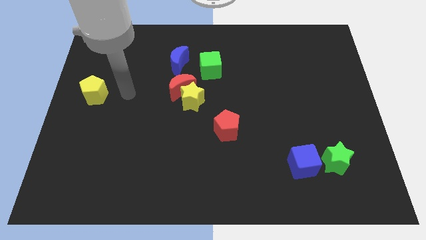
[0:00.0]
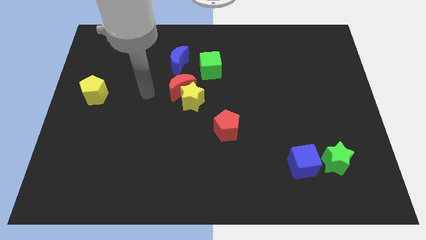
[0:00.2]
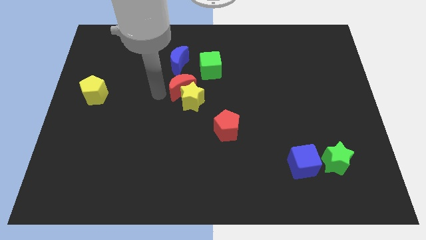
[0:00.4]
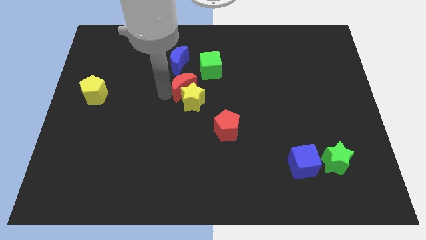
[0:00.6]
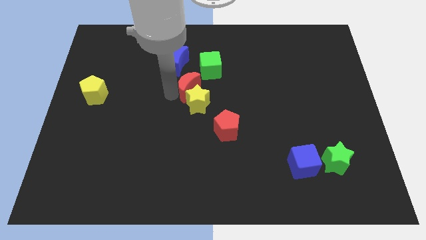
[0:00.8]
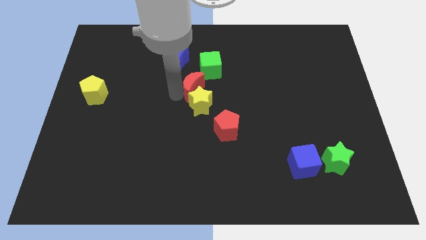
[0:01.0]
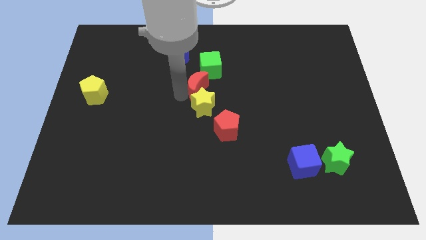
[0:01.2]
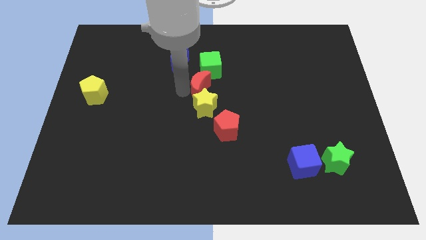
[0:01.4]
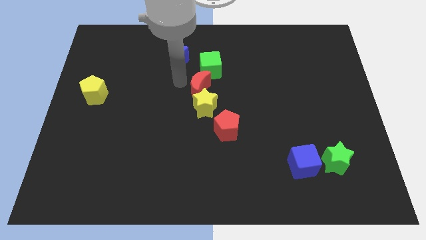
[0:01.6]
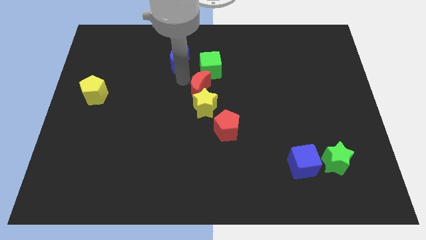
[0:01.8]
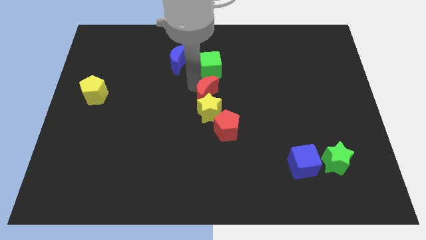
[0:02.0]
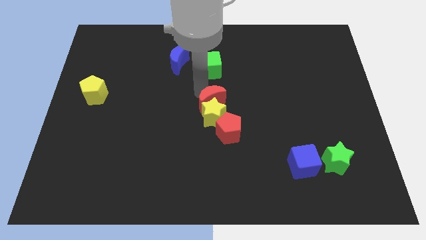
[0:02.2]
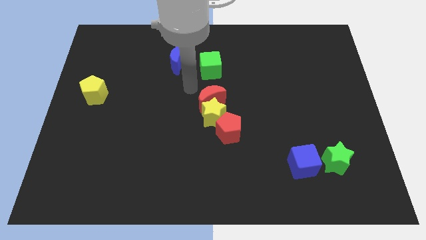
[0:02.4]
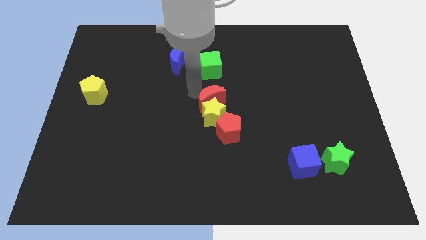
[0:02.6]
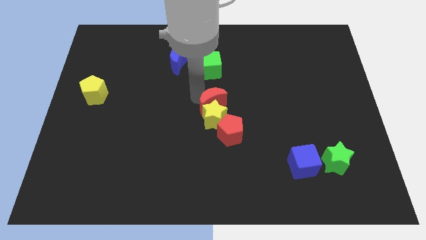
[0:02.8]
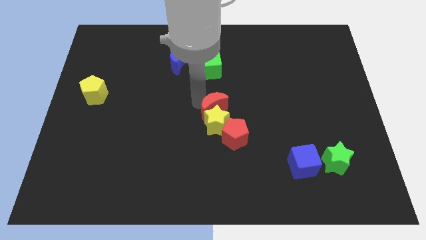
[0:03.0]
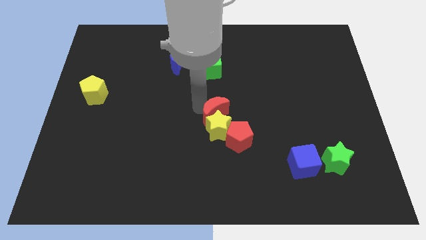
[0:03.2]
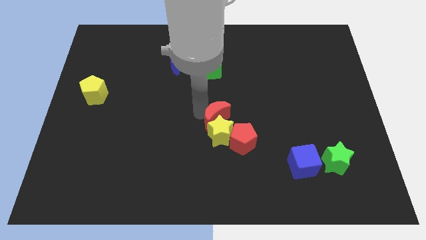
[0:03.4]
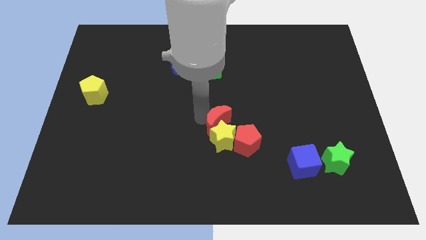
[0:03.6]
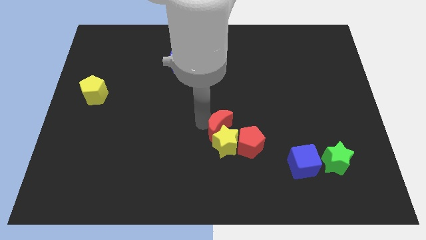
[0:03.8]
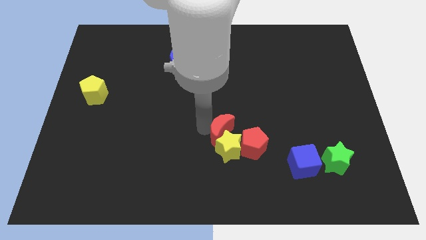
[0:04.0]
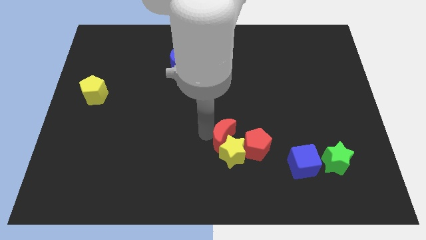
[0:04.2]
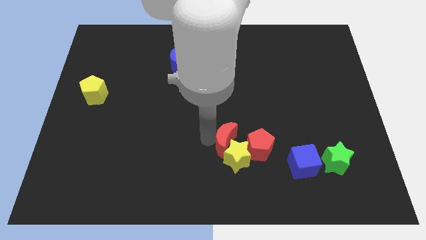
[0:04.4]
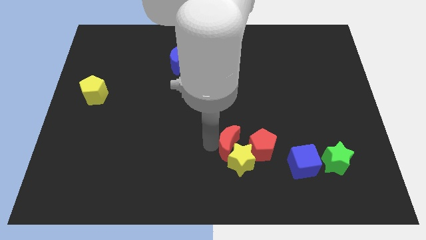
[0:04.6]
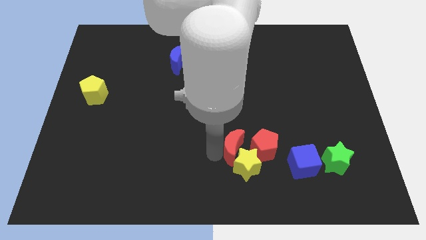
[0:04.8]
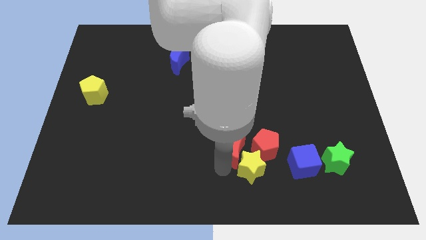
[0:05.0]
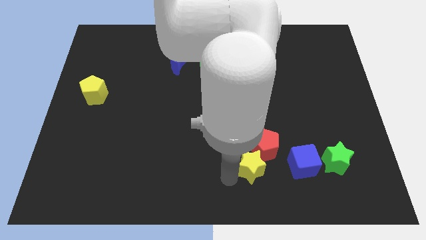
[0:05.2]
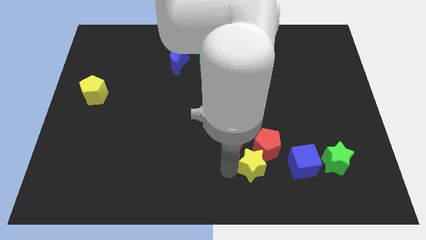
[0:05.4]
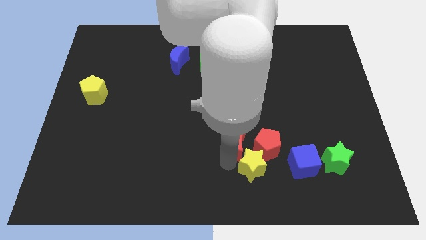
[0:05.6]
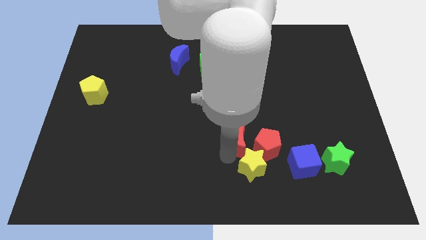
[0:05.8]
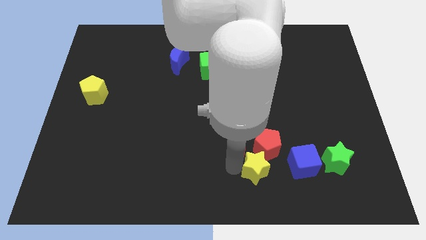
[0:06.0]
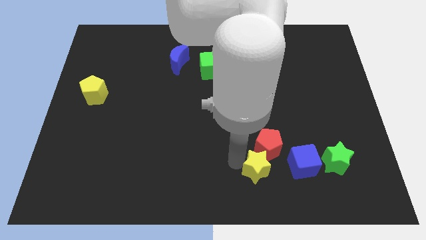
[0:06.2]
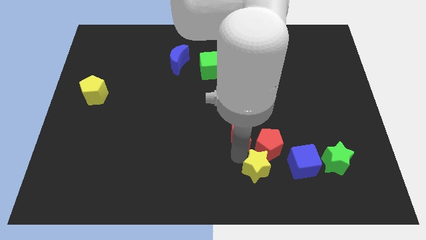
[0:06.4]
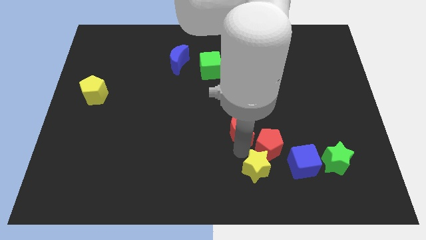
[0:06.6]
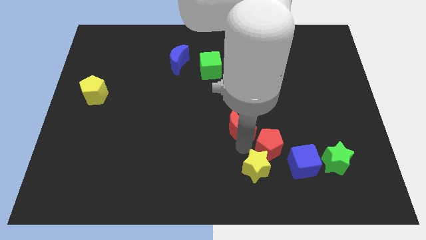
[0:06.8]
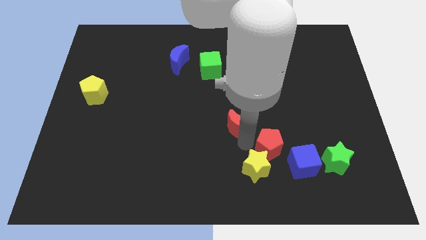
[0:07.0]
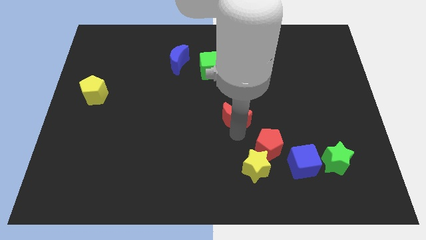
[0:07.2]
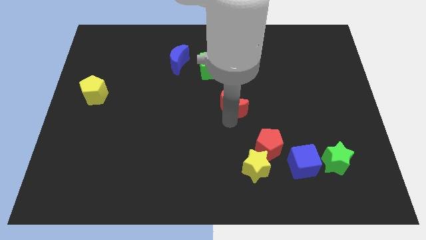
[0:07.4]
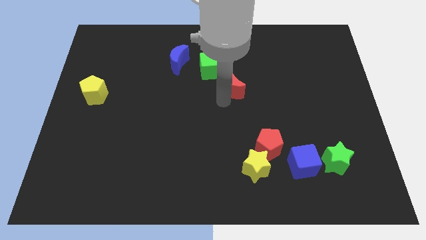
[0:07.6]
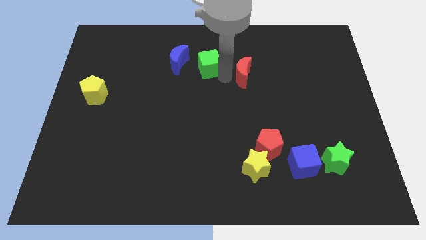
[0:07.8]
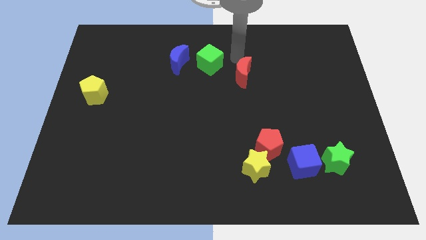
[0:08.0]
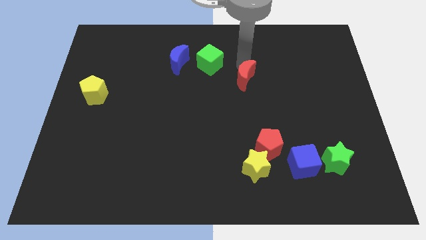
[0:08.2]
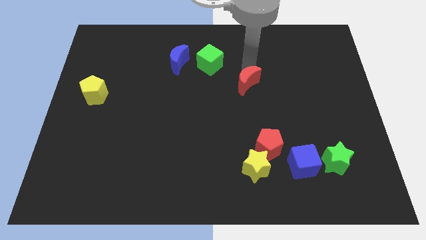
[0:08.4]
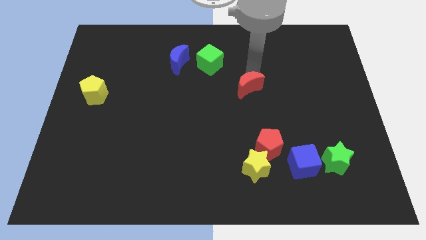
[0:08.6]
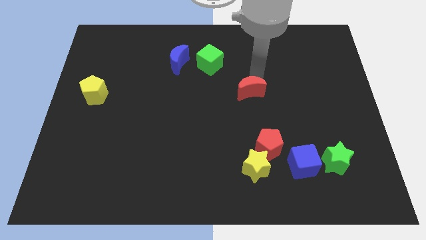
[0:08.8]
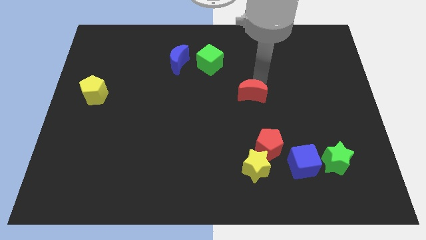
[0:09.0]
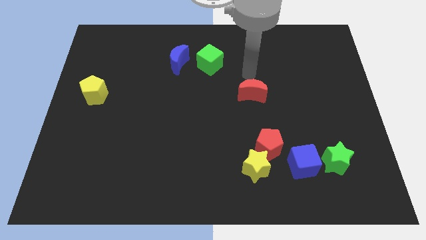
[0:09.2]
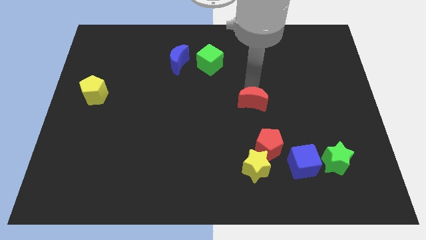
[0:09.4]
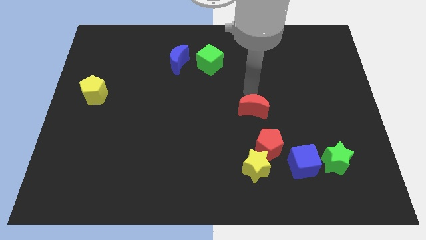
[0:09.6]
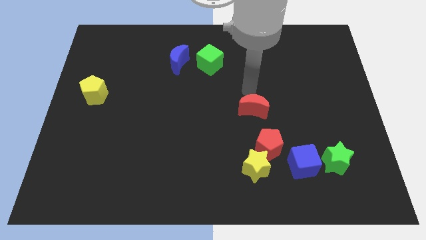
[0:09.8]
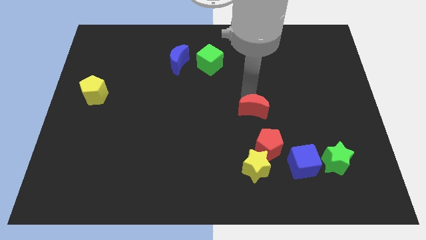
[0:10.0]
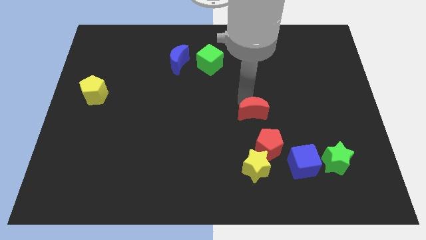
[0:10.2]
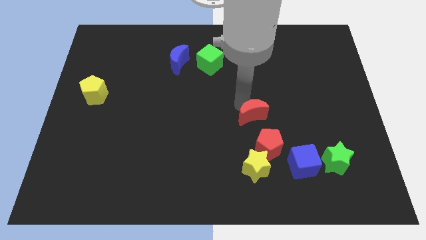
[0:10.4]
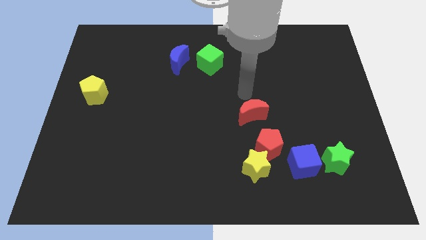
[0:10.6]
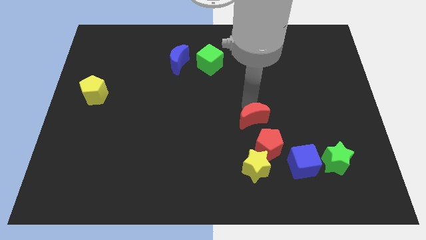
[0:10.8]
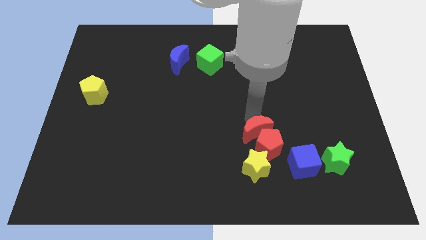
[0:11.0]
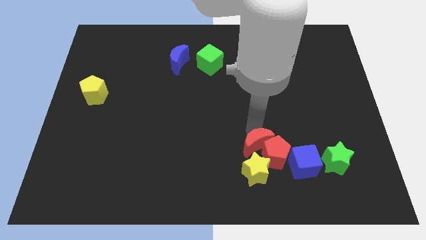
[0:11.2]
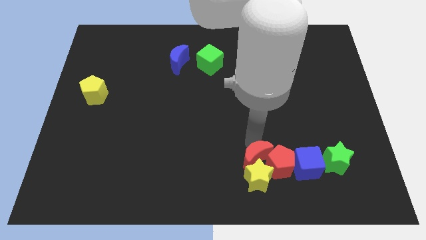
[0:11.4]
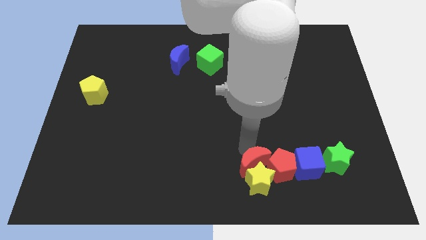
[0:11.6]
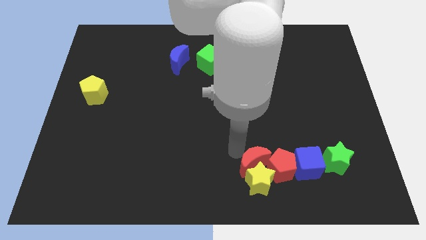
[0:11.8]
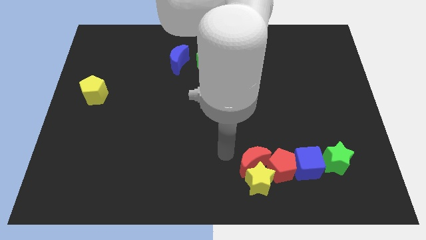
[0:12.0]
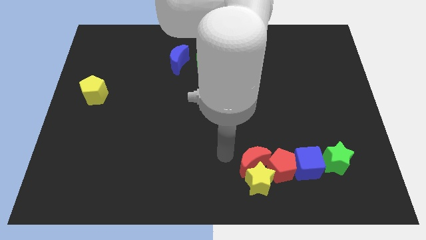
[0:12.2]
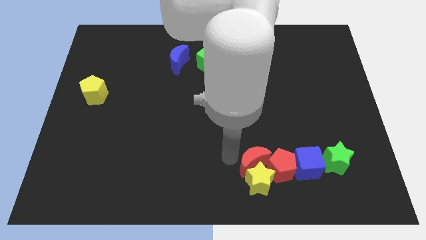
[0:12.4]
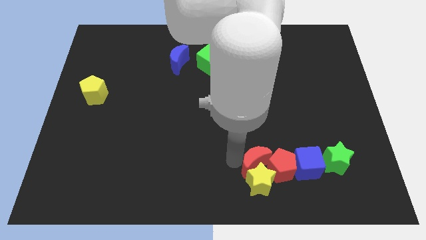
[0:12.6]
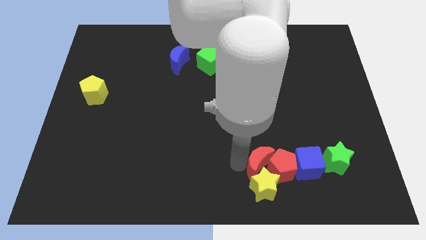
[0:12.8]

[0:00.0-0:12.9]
slide the red moon to the left side of the green star

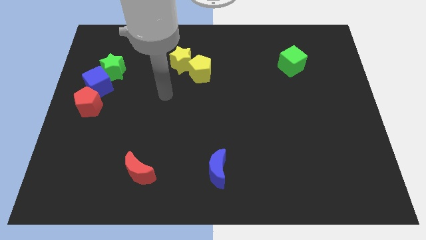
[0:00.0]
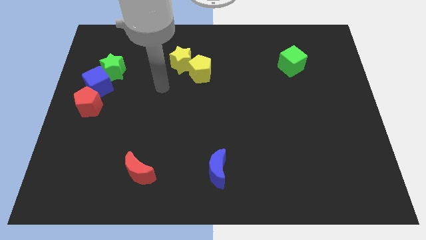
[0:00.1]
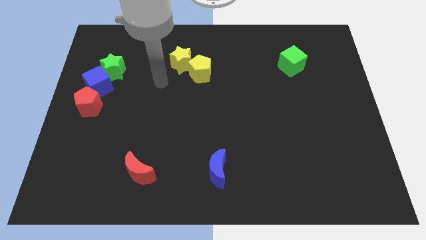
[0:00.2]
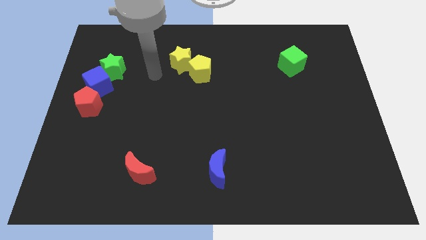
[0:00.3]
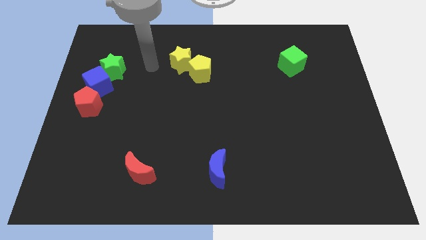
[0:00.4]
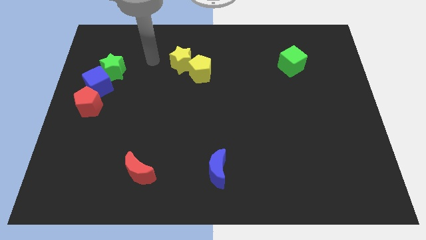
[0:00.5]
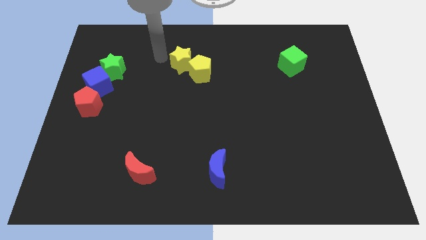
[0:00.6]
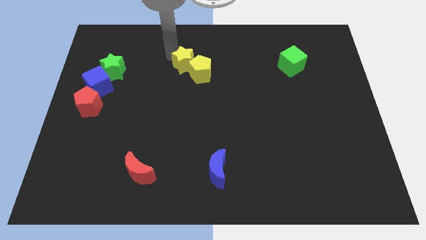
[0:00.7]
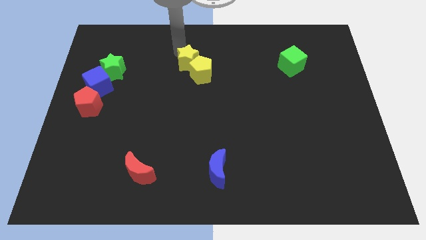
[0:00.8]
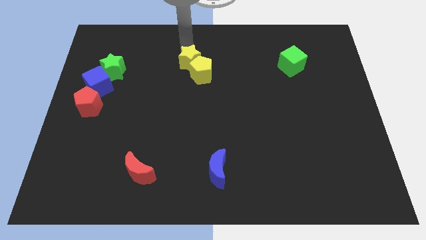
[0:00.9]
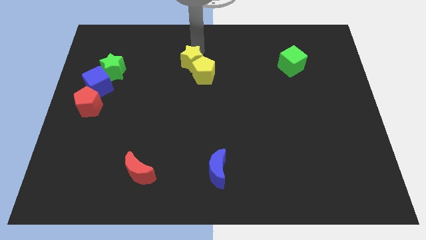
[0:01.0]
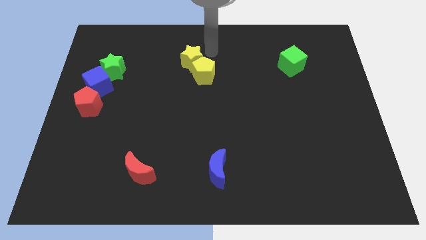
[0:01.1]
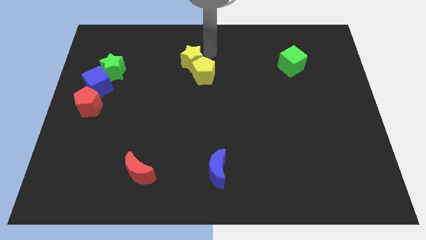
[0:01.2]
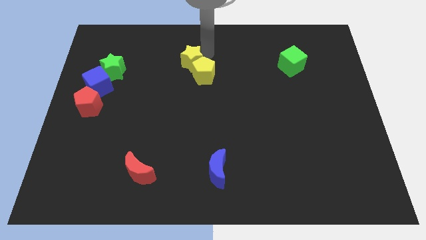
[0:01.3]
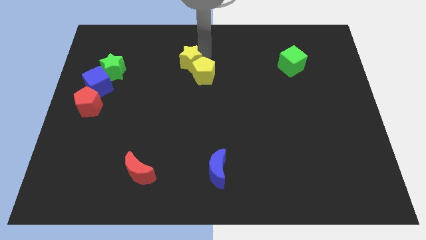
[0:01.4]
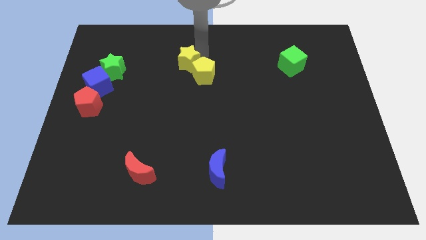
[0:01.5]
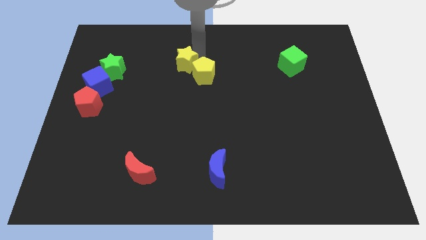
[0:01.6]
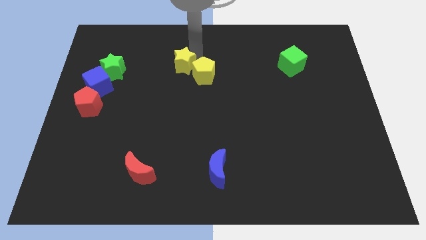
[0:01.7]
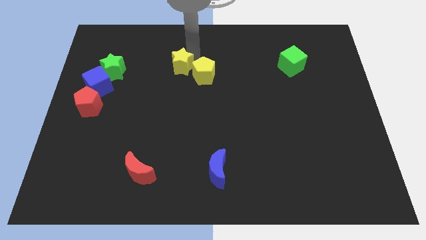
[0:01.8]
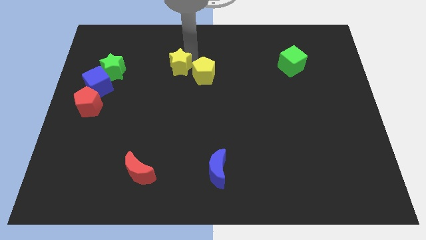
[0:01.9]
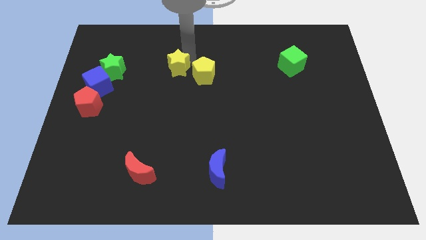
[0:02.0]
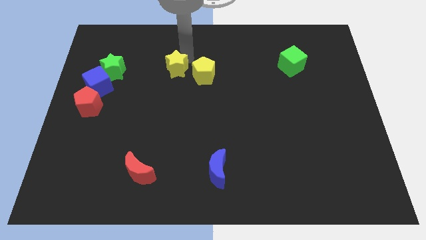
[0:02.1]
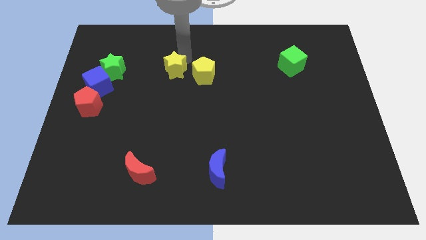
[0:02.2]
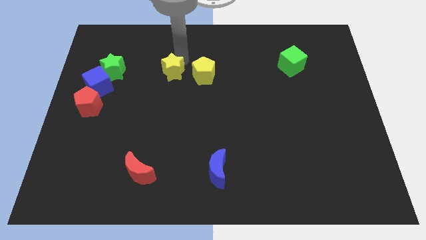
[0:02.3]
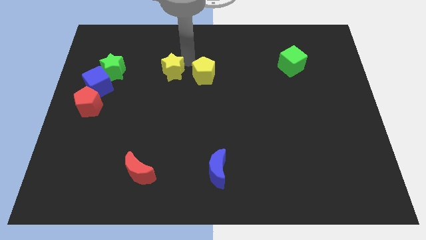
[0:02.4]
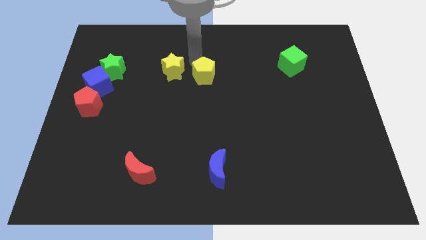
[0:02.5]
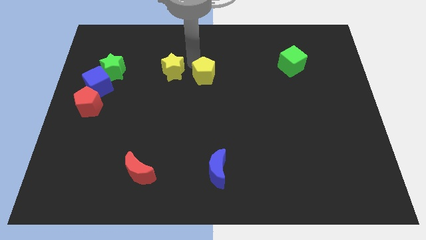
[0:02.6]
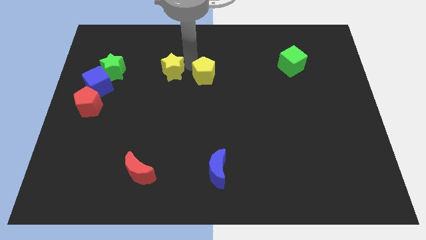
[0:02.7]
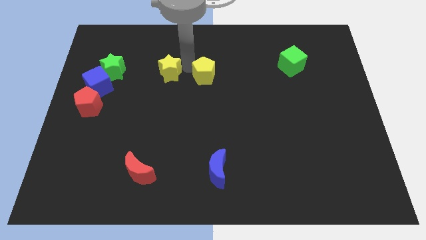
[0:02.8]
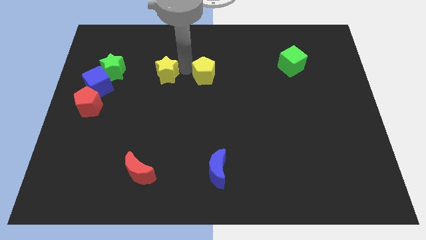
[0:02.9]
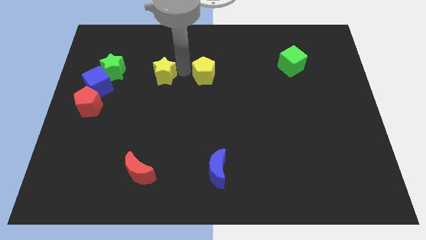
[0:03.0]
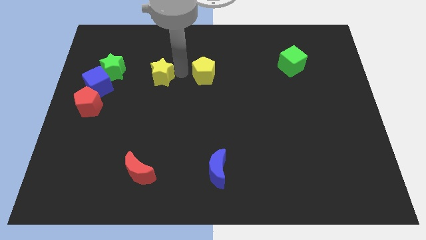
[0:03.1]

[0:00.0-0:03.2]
slide the yellow star to the right side of the blue cube
